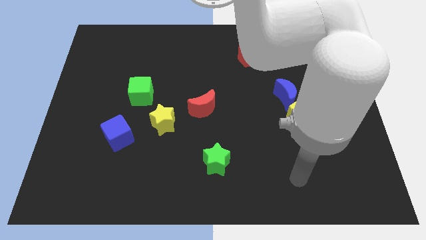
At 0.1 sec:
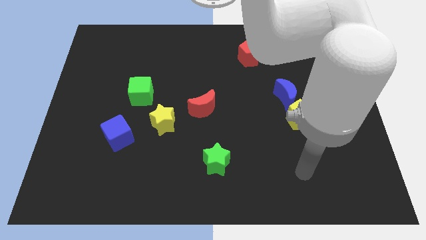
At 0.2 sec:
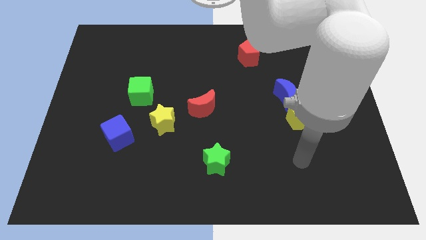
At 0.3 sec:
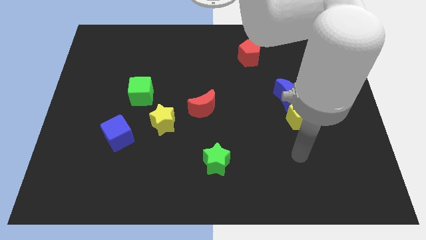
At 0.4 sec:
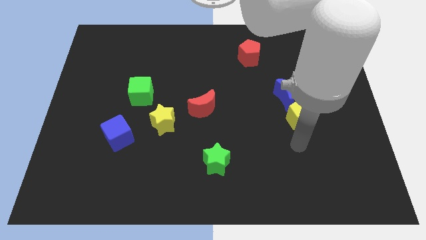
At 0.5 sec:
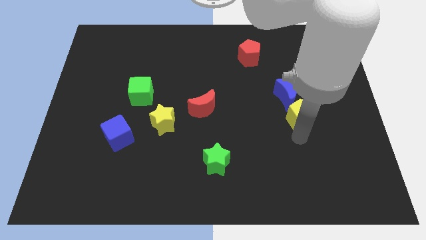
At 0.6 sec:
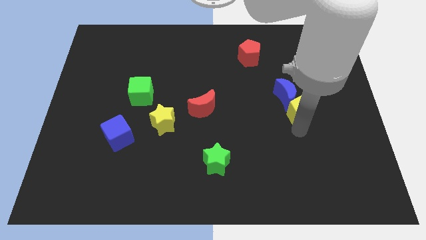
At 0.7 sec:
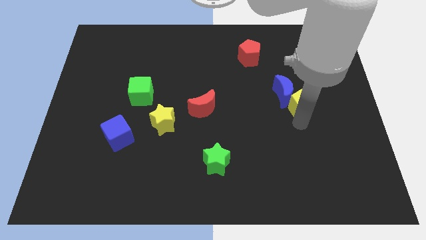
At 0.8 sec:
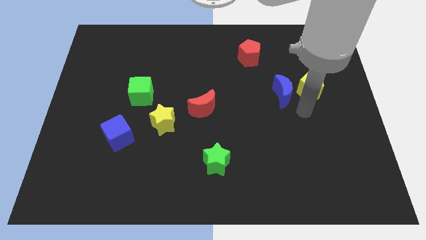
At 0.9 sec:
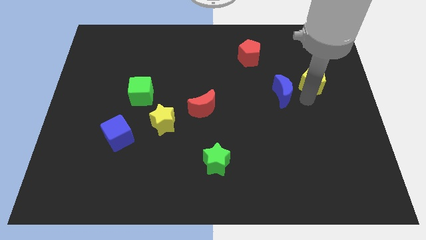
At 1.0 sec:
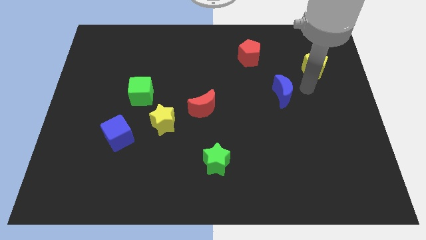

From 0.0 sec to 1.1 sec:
separate the blue moon from the yellow pentagon

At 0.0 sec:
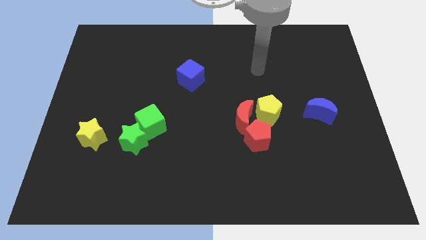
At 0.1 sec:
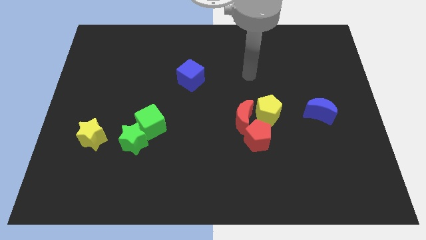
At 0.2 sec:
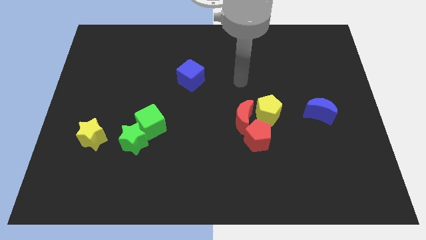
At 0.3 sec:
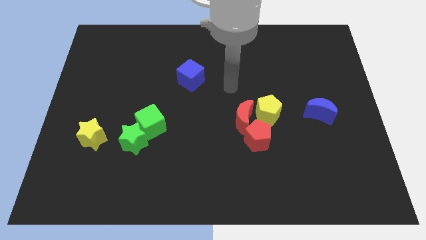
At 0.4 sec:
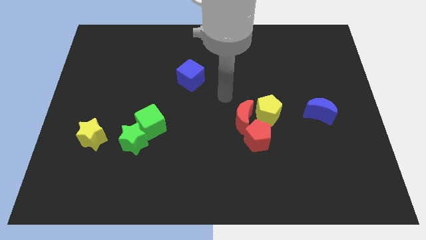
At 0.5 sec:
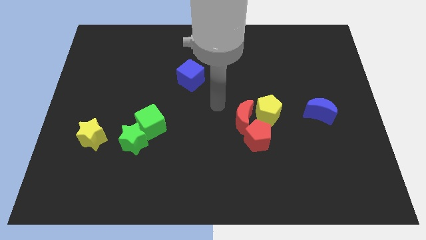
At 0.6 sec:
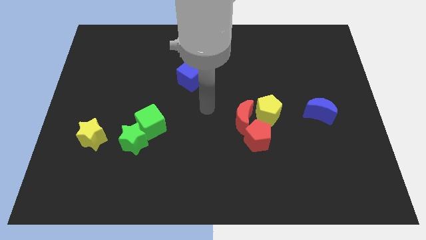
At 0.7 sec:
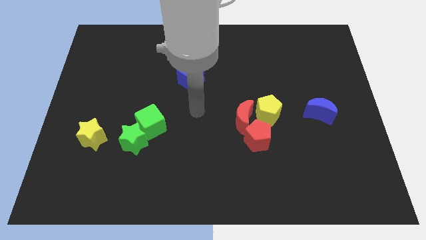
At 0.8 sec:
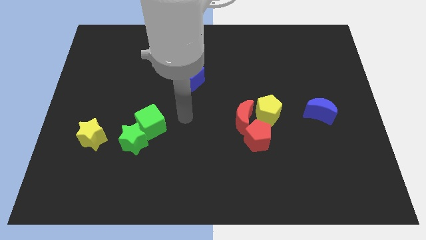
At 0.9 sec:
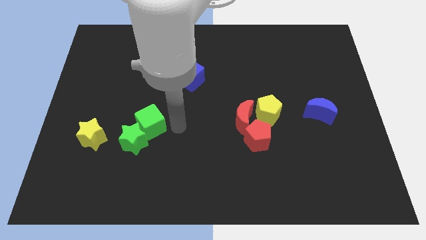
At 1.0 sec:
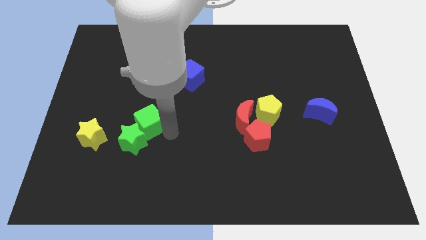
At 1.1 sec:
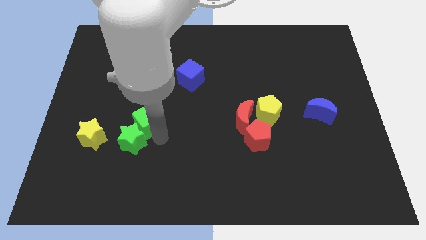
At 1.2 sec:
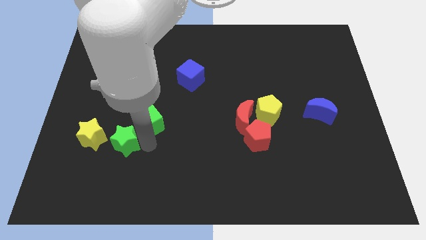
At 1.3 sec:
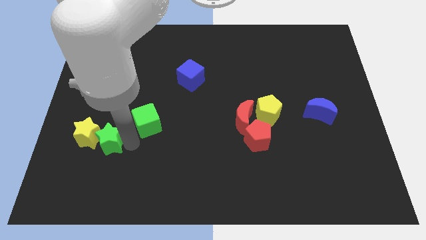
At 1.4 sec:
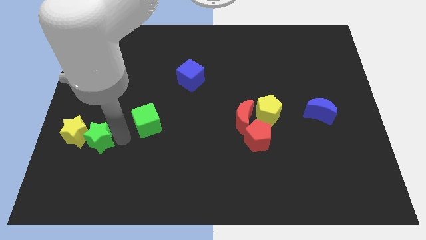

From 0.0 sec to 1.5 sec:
separate the green cube from the green star

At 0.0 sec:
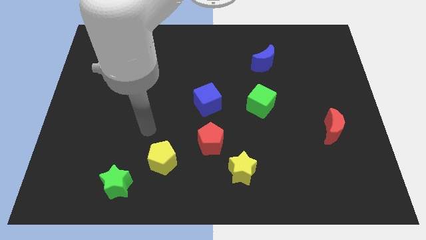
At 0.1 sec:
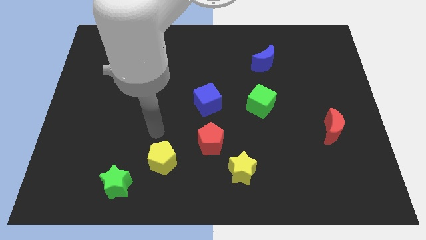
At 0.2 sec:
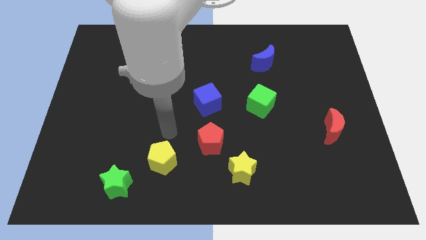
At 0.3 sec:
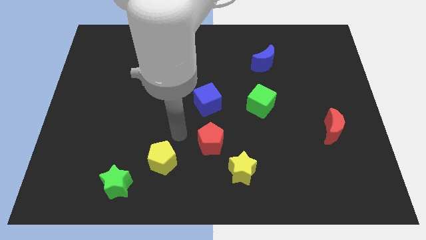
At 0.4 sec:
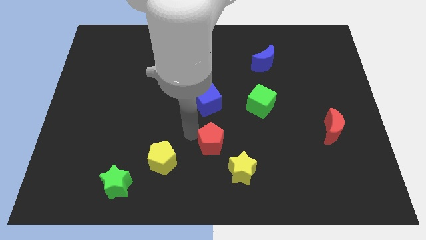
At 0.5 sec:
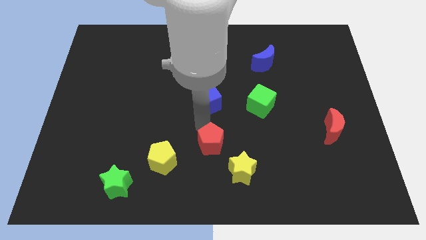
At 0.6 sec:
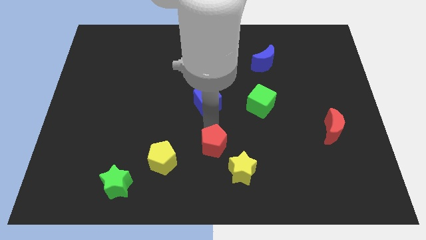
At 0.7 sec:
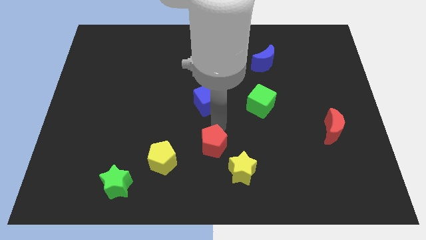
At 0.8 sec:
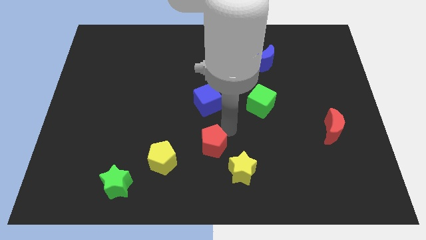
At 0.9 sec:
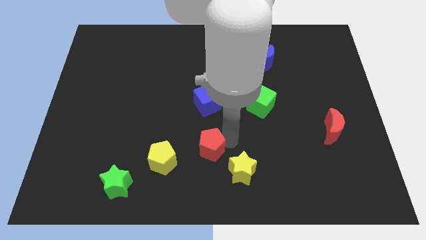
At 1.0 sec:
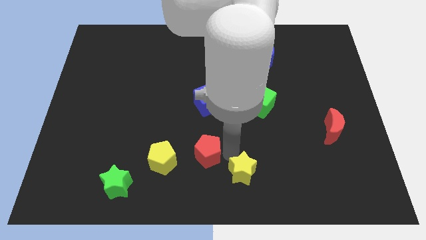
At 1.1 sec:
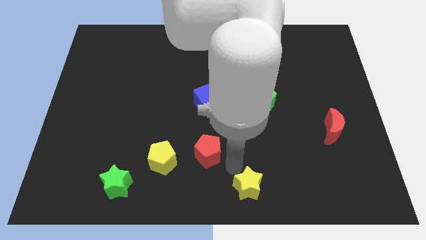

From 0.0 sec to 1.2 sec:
move the red pentagon away from the yellow star

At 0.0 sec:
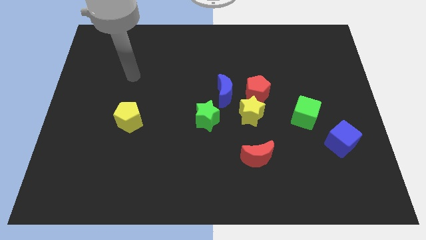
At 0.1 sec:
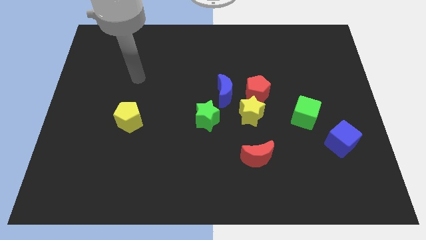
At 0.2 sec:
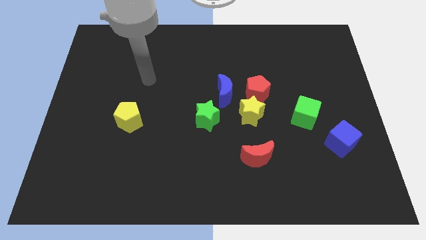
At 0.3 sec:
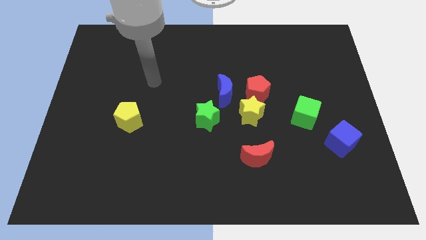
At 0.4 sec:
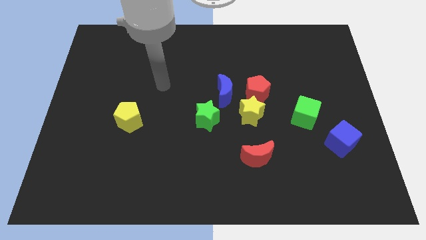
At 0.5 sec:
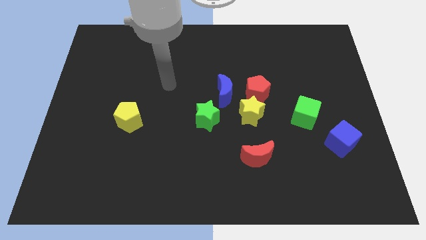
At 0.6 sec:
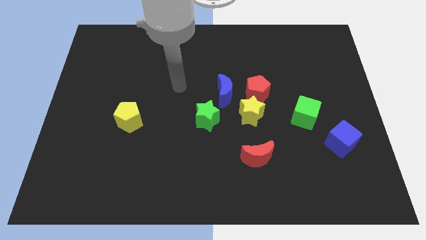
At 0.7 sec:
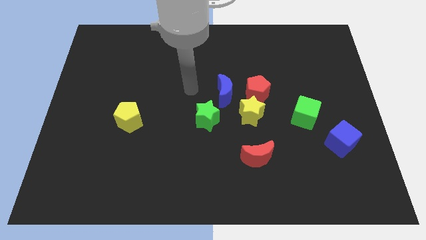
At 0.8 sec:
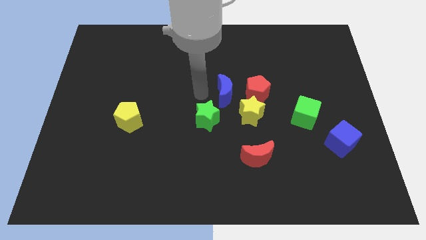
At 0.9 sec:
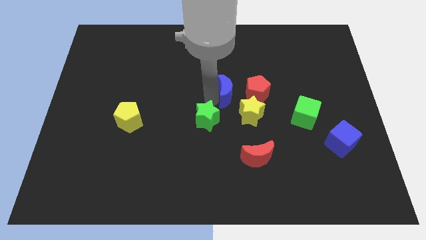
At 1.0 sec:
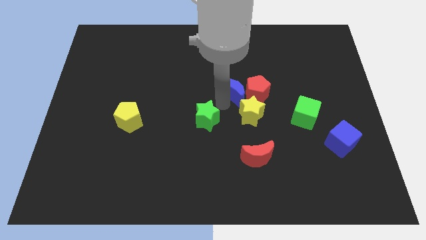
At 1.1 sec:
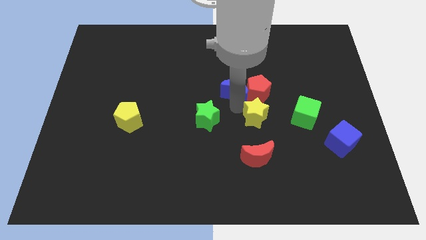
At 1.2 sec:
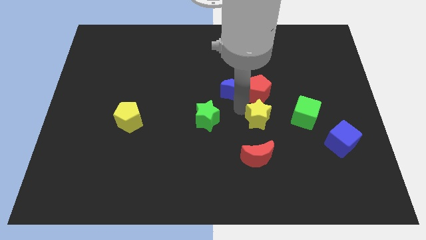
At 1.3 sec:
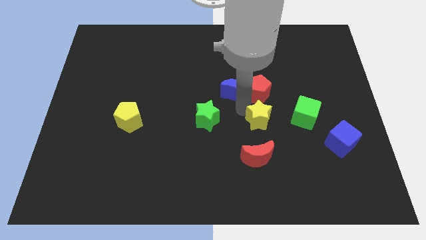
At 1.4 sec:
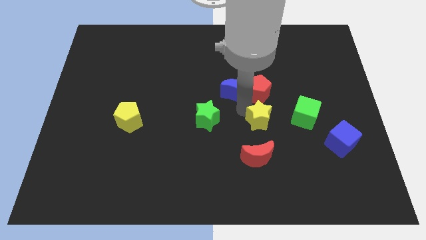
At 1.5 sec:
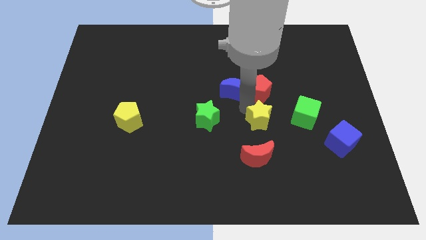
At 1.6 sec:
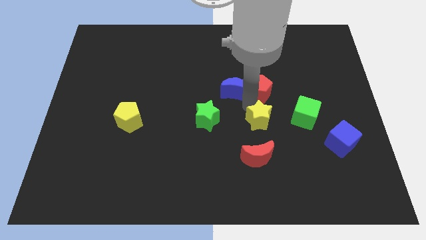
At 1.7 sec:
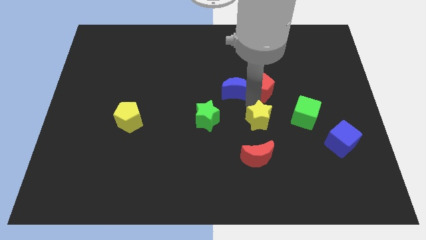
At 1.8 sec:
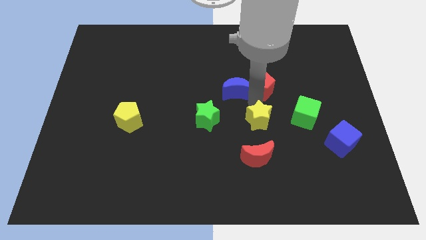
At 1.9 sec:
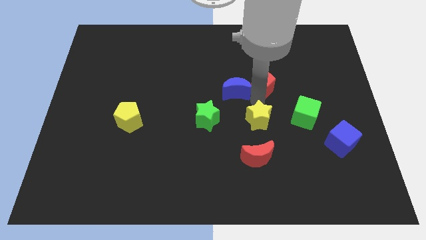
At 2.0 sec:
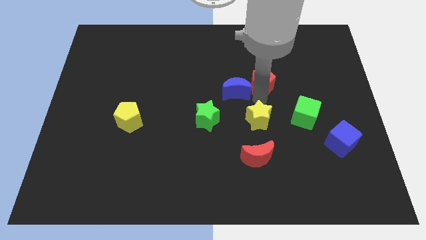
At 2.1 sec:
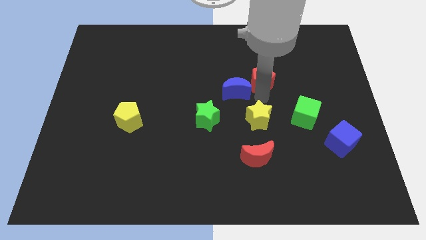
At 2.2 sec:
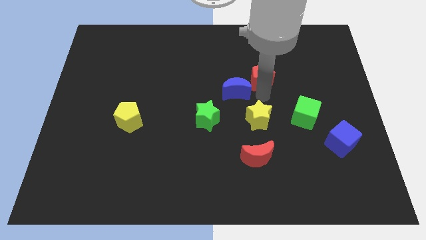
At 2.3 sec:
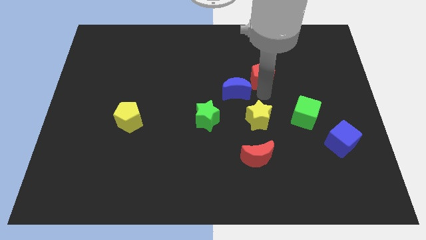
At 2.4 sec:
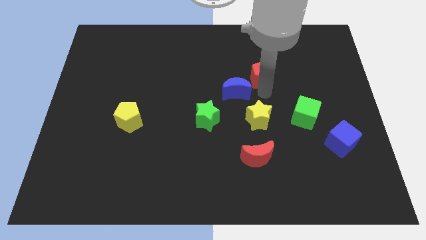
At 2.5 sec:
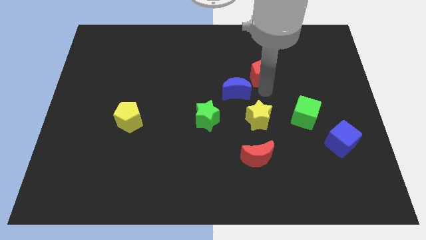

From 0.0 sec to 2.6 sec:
move the red pentagon away from the yellow star and blue moon

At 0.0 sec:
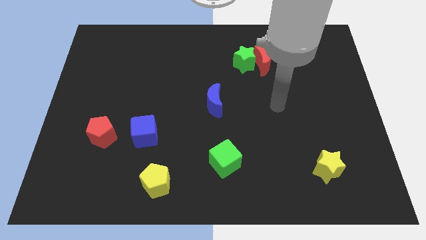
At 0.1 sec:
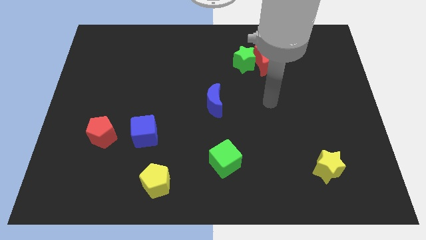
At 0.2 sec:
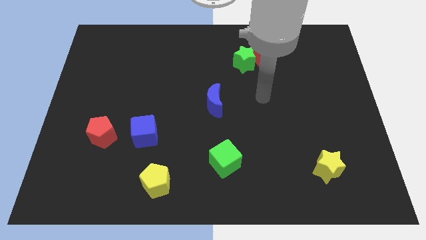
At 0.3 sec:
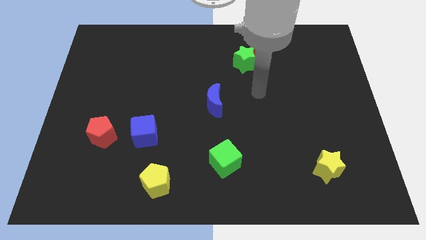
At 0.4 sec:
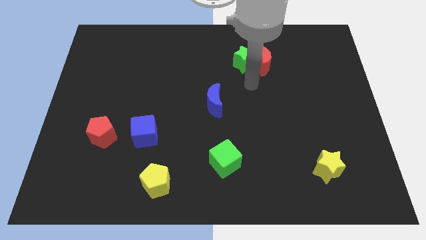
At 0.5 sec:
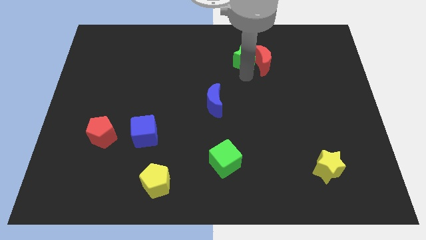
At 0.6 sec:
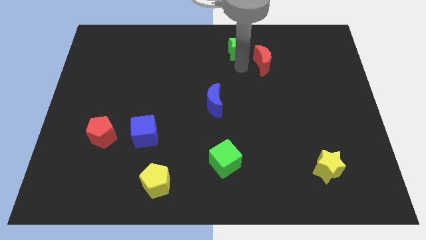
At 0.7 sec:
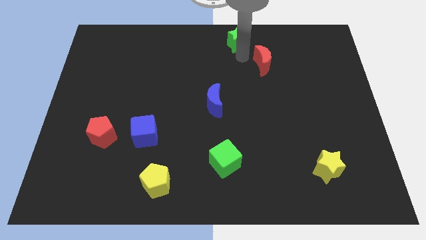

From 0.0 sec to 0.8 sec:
pull the red moon apart from the green star

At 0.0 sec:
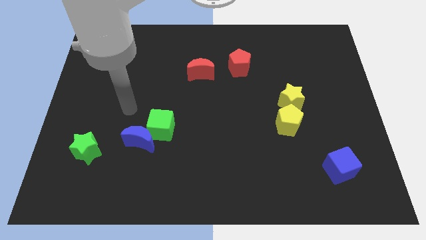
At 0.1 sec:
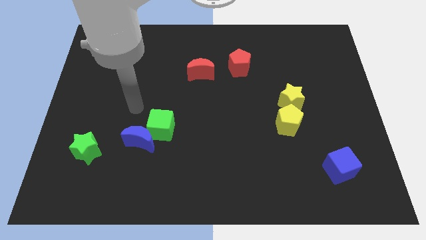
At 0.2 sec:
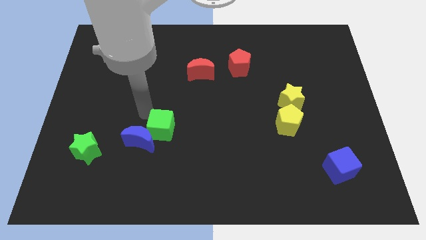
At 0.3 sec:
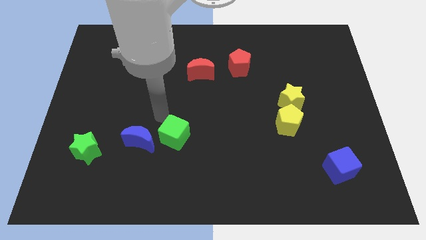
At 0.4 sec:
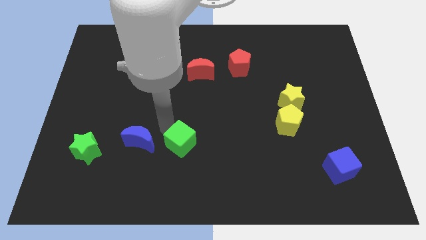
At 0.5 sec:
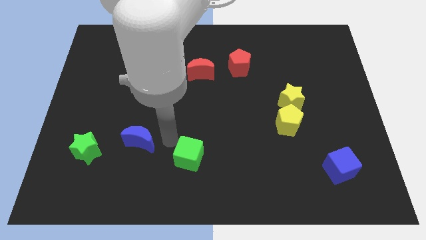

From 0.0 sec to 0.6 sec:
move the blue moon away from the green cube

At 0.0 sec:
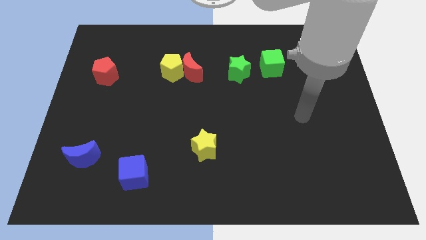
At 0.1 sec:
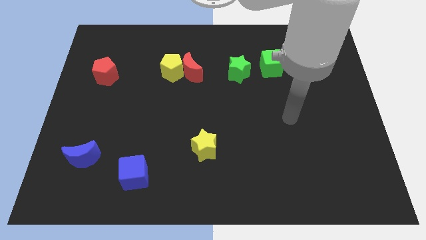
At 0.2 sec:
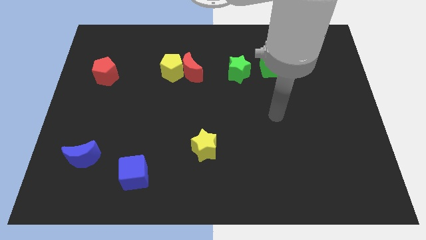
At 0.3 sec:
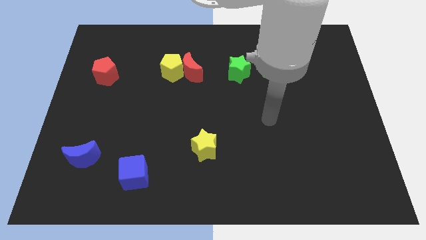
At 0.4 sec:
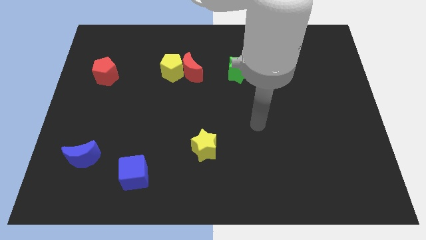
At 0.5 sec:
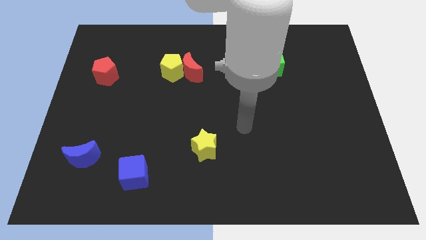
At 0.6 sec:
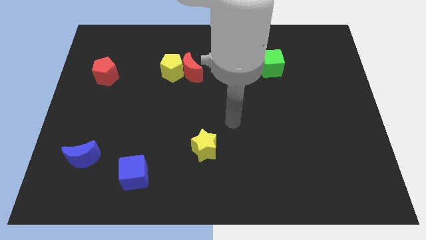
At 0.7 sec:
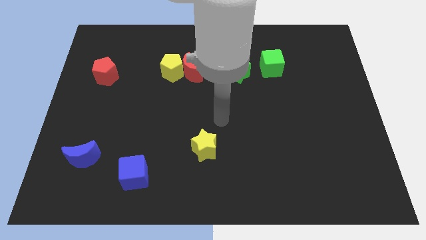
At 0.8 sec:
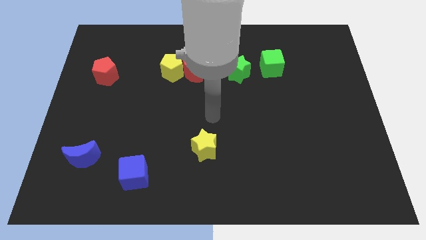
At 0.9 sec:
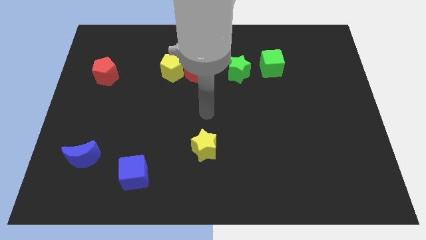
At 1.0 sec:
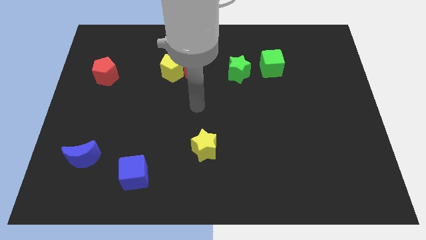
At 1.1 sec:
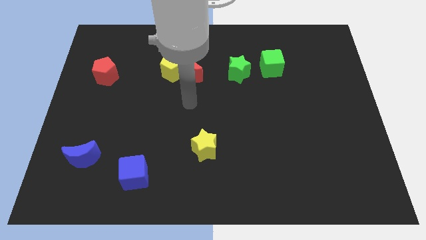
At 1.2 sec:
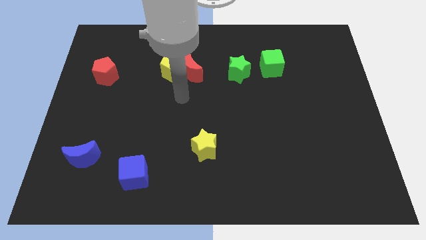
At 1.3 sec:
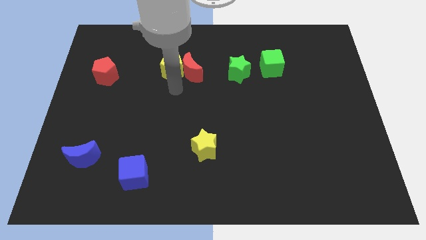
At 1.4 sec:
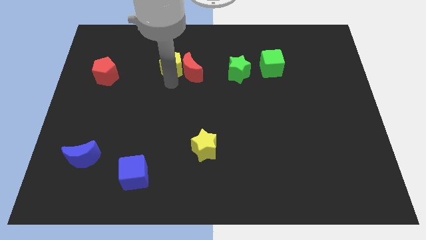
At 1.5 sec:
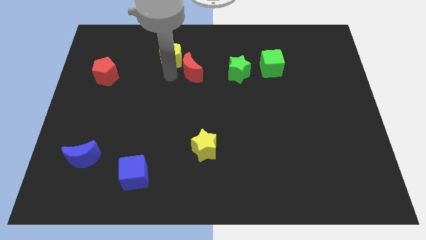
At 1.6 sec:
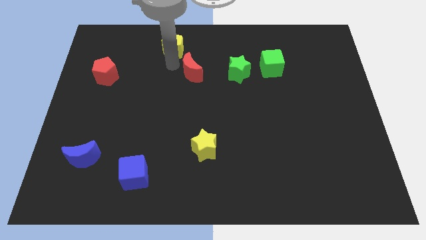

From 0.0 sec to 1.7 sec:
move the red moon away from the yellow pentagon
